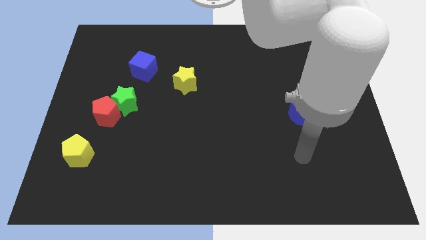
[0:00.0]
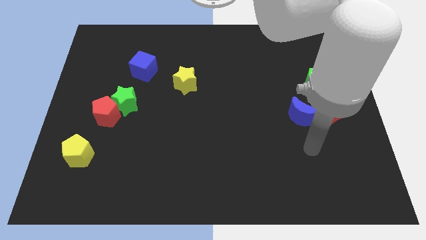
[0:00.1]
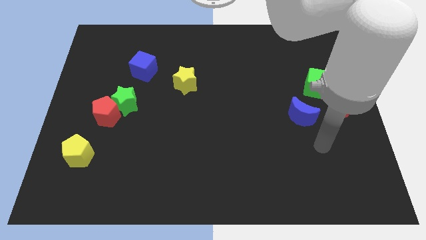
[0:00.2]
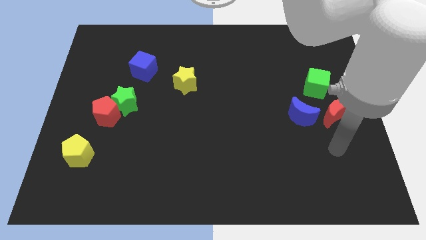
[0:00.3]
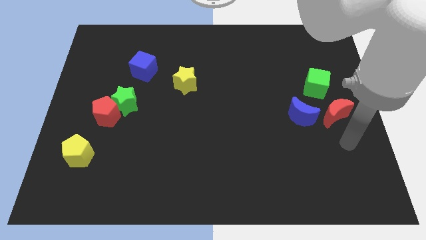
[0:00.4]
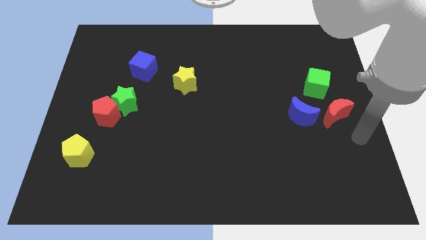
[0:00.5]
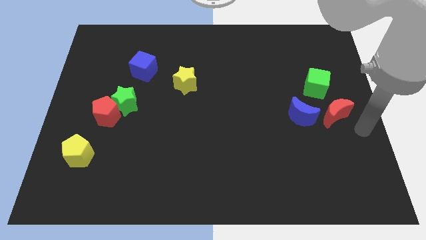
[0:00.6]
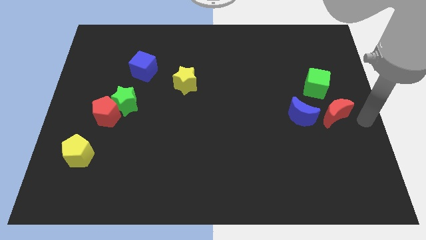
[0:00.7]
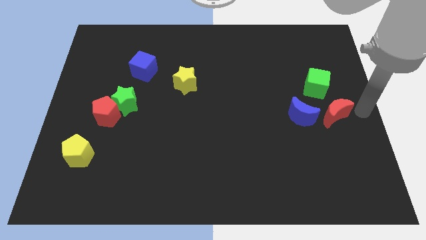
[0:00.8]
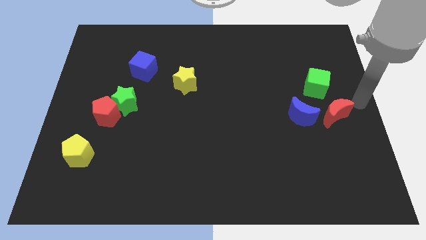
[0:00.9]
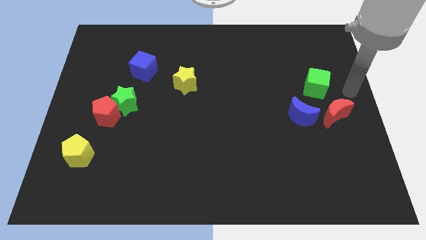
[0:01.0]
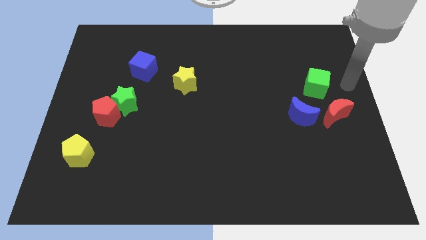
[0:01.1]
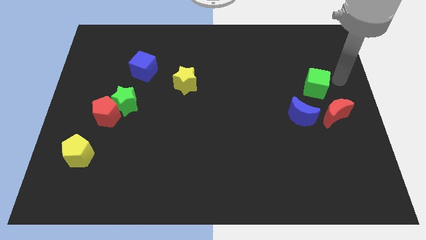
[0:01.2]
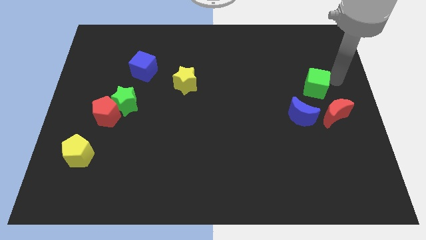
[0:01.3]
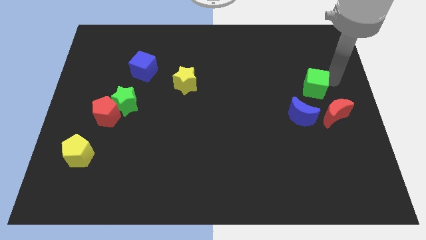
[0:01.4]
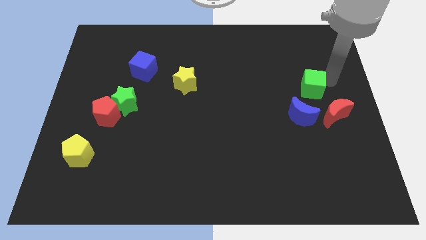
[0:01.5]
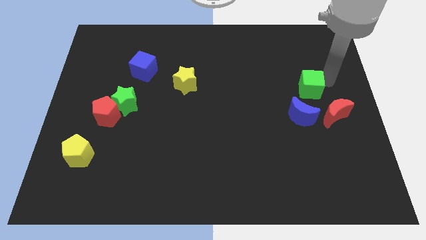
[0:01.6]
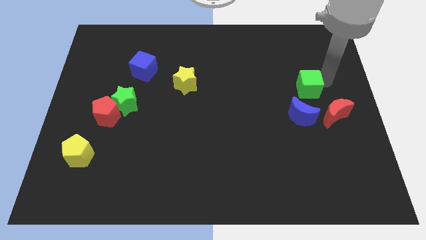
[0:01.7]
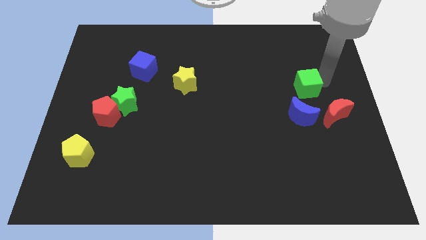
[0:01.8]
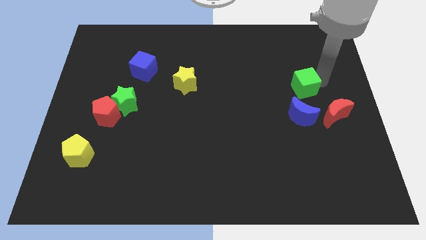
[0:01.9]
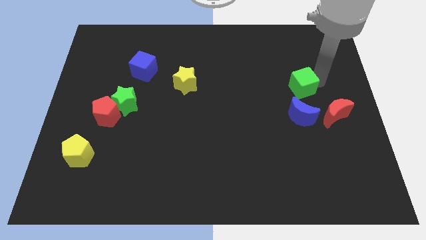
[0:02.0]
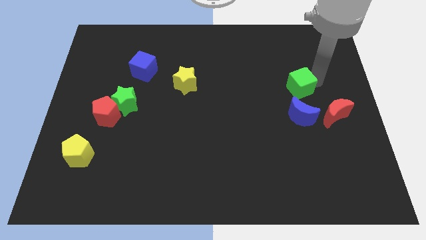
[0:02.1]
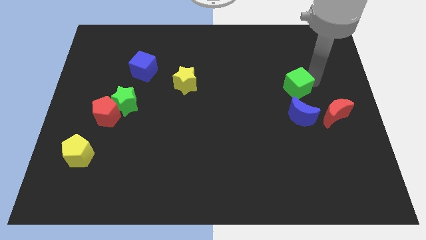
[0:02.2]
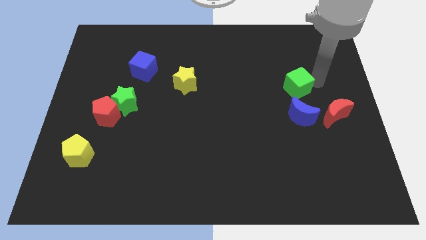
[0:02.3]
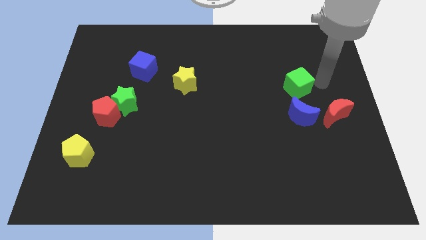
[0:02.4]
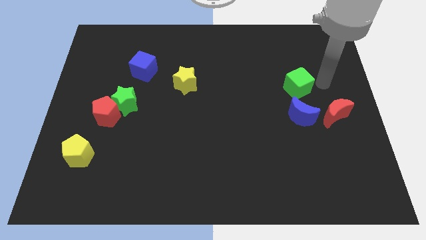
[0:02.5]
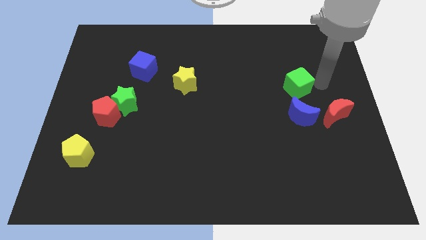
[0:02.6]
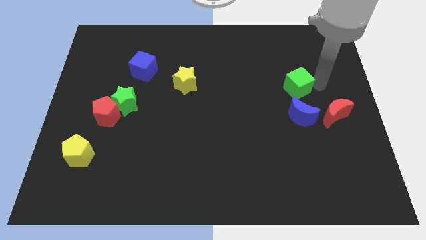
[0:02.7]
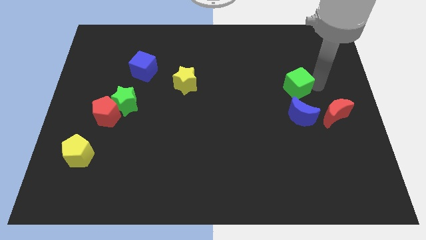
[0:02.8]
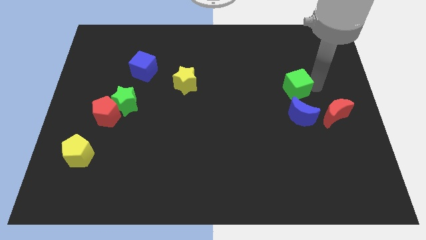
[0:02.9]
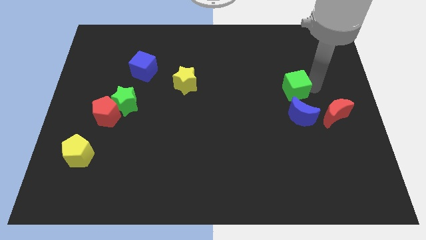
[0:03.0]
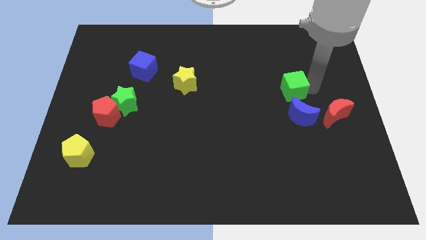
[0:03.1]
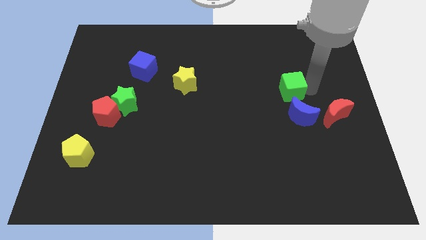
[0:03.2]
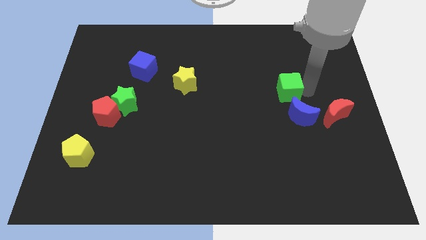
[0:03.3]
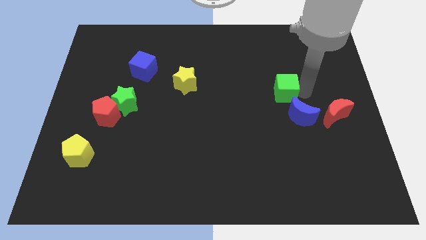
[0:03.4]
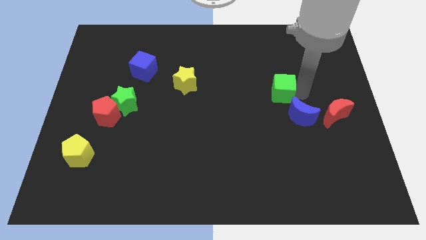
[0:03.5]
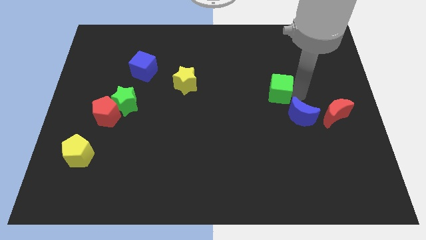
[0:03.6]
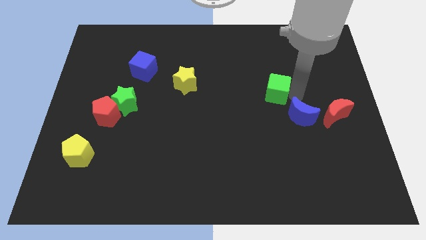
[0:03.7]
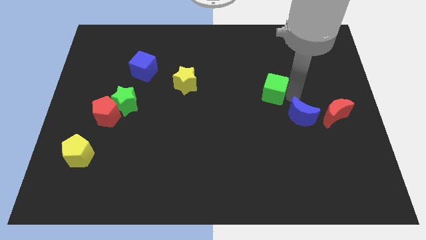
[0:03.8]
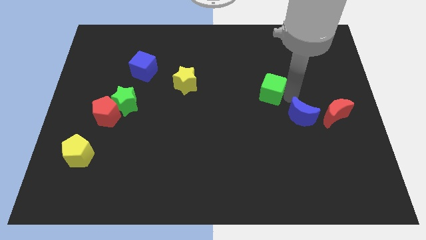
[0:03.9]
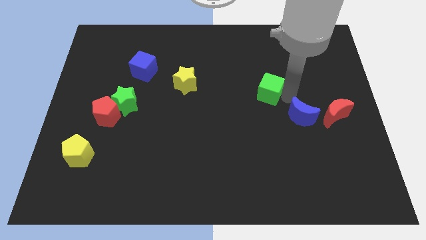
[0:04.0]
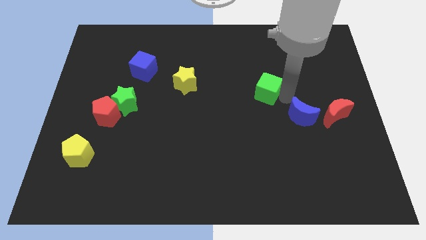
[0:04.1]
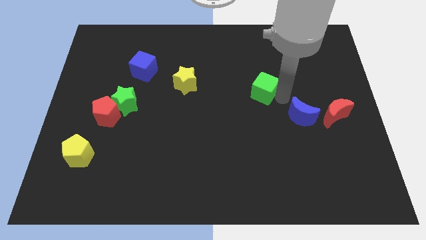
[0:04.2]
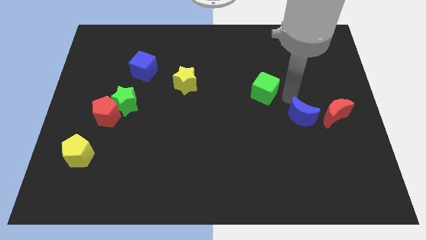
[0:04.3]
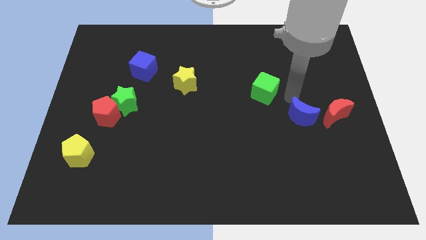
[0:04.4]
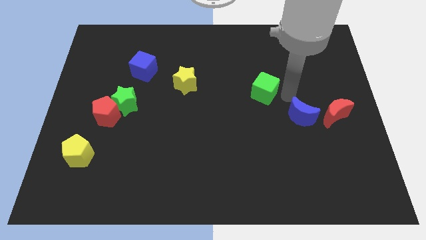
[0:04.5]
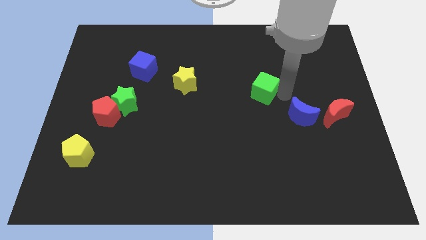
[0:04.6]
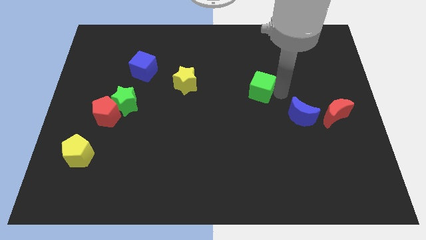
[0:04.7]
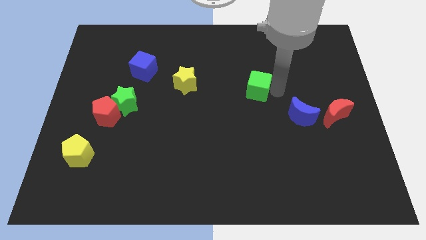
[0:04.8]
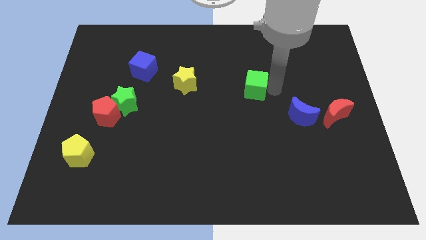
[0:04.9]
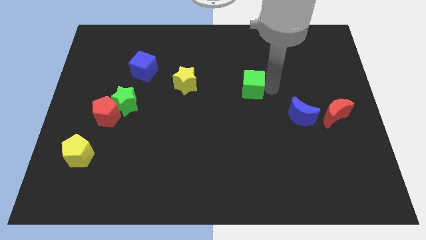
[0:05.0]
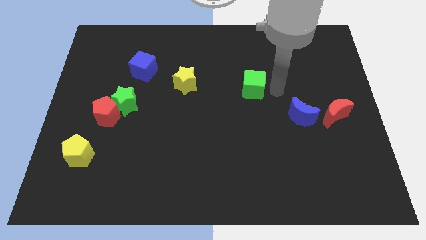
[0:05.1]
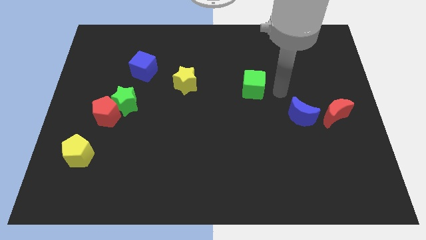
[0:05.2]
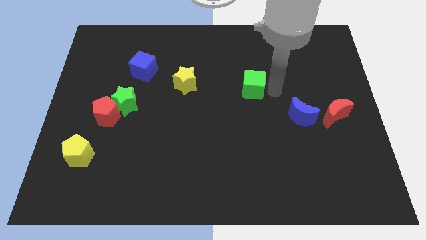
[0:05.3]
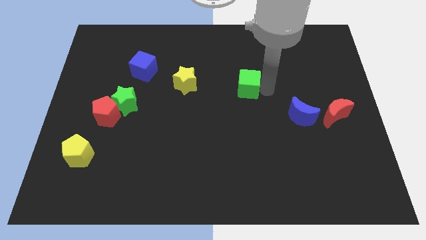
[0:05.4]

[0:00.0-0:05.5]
put the green cube right of the yellow star

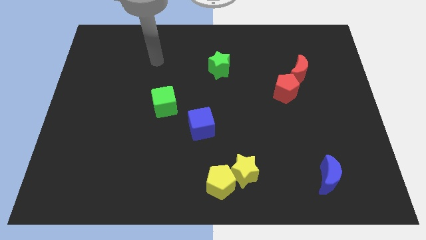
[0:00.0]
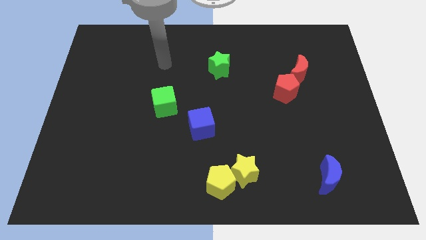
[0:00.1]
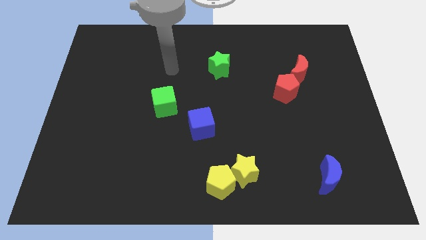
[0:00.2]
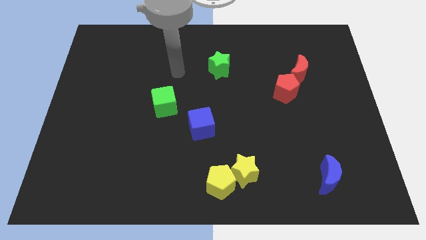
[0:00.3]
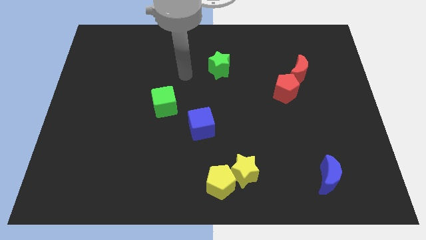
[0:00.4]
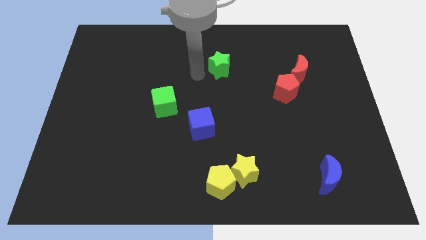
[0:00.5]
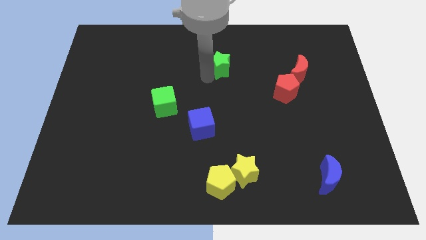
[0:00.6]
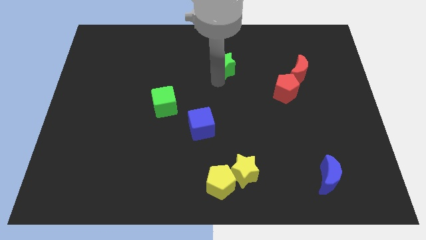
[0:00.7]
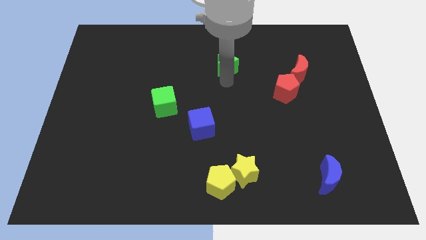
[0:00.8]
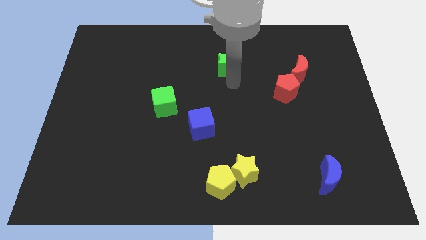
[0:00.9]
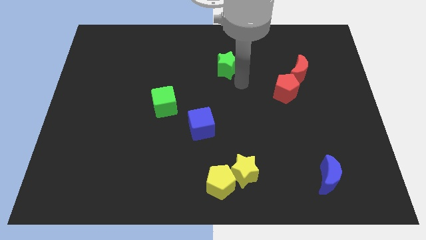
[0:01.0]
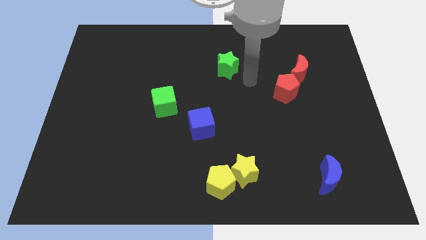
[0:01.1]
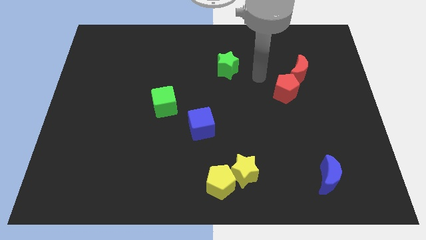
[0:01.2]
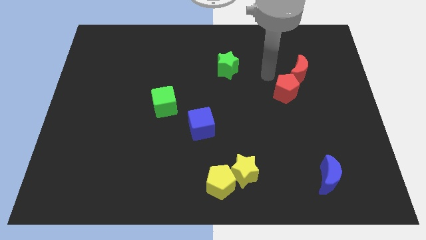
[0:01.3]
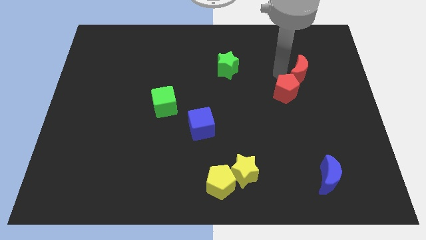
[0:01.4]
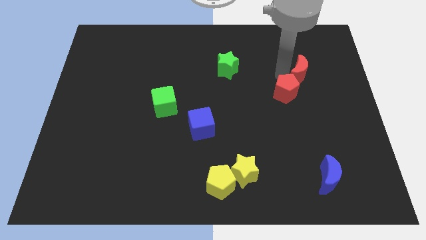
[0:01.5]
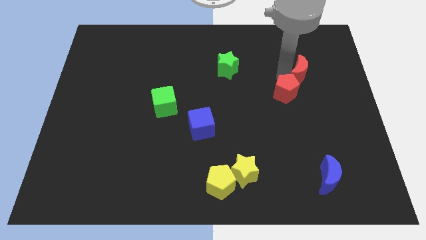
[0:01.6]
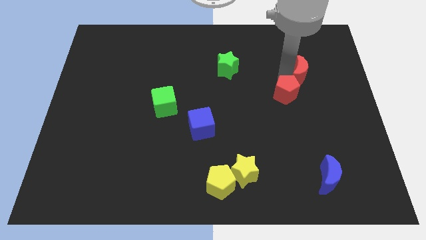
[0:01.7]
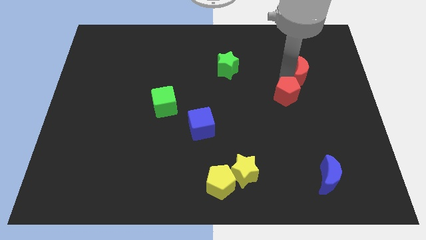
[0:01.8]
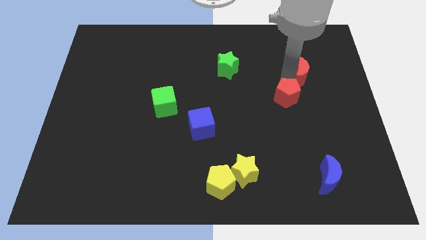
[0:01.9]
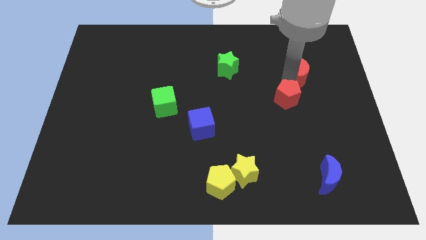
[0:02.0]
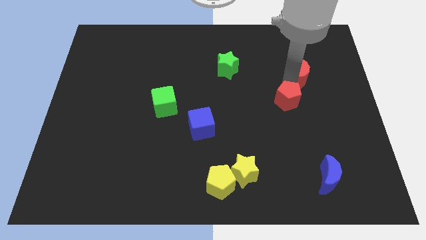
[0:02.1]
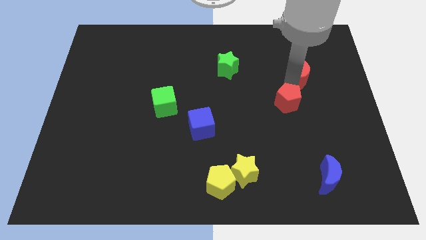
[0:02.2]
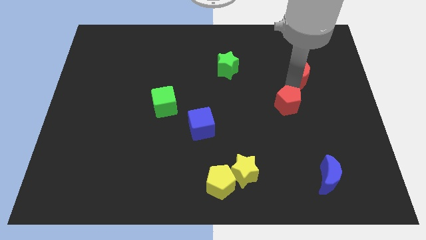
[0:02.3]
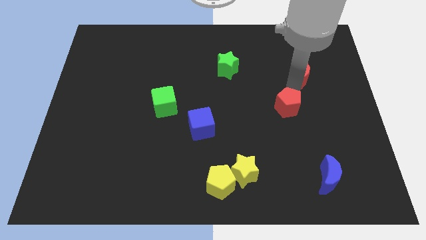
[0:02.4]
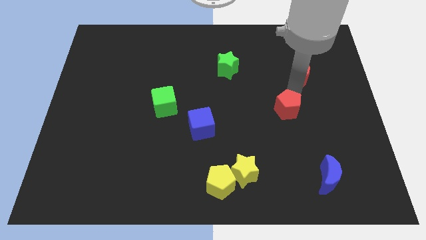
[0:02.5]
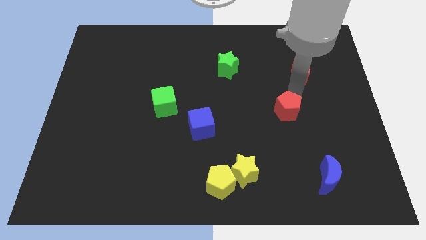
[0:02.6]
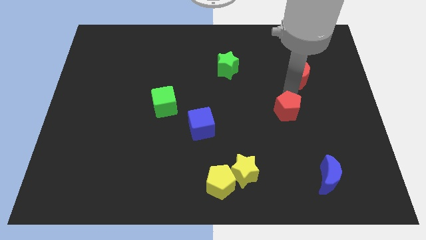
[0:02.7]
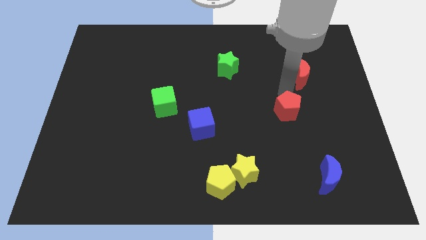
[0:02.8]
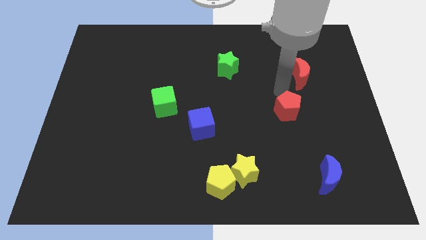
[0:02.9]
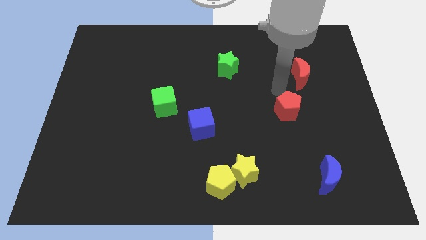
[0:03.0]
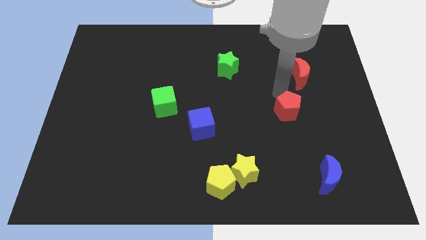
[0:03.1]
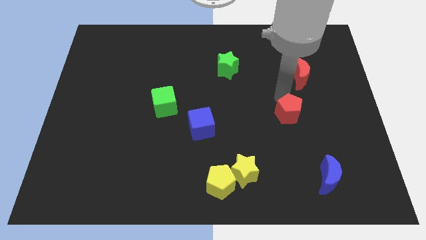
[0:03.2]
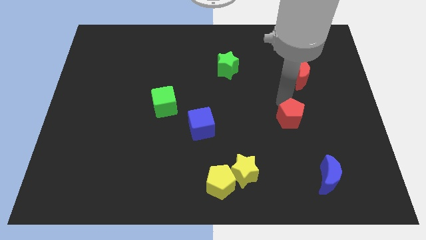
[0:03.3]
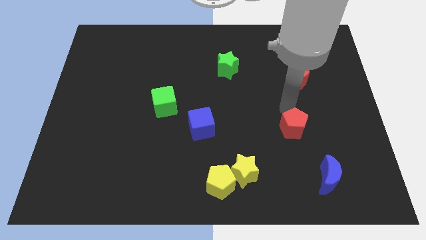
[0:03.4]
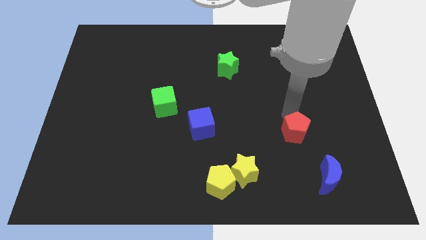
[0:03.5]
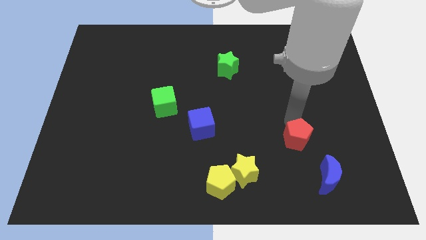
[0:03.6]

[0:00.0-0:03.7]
put the red pentagon to the top left of the blue moon
